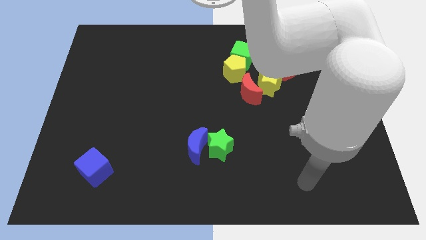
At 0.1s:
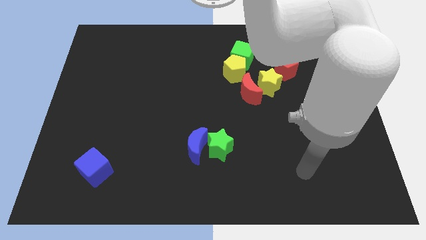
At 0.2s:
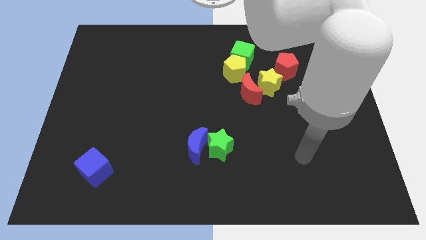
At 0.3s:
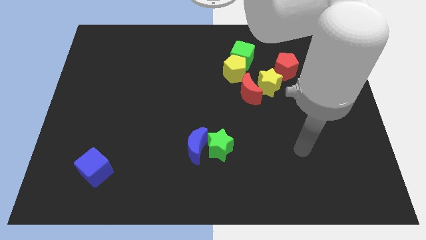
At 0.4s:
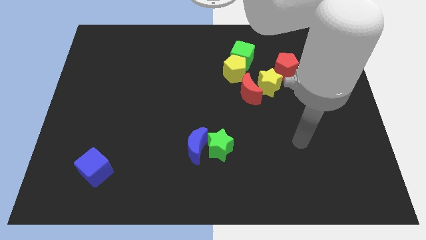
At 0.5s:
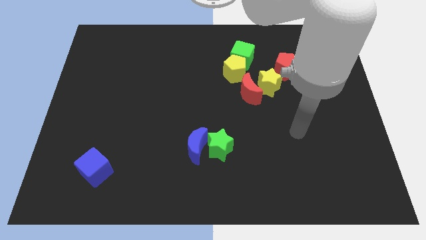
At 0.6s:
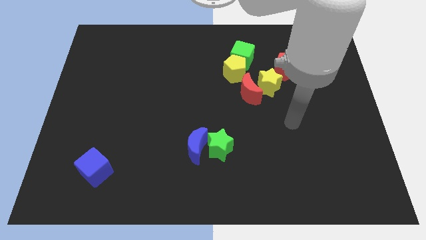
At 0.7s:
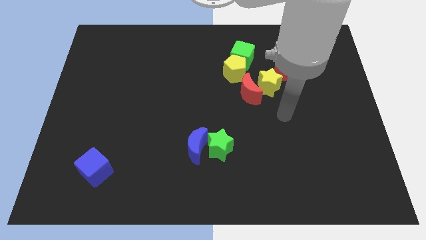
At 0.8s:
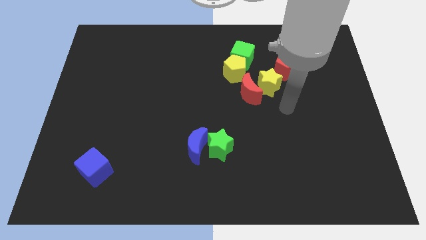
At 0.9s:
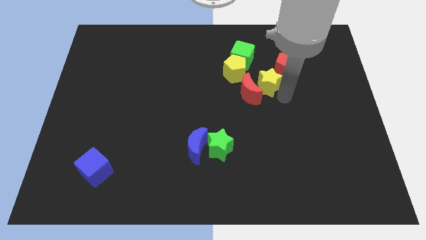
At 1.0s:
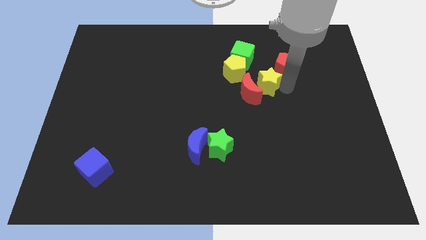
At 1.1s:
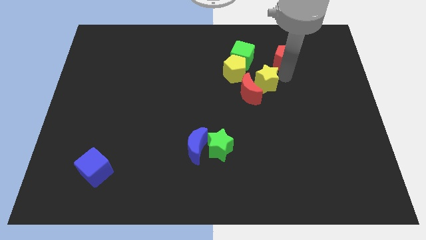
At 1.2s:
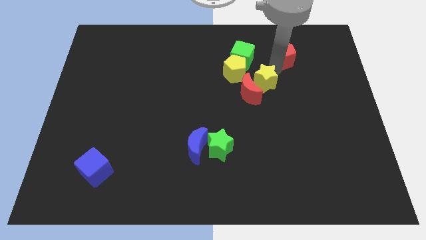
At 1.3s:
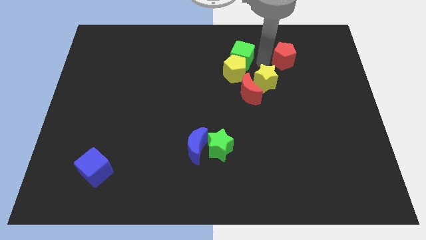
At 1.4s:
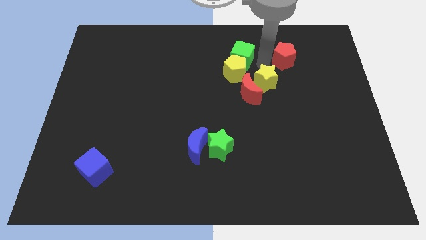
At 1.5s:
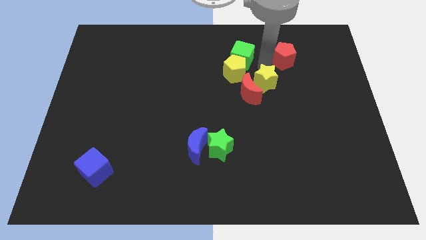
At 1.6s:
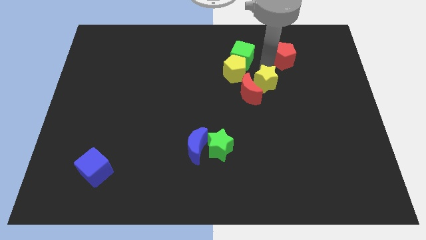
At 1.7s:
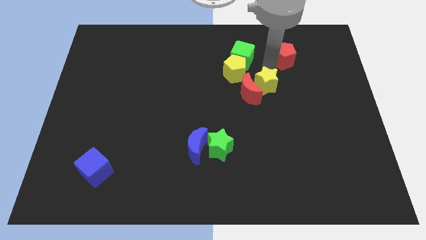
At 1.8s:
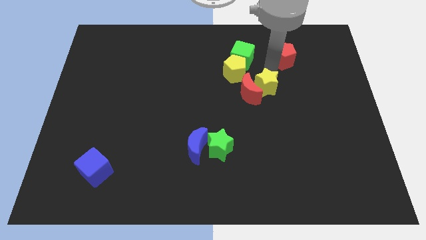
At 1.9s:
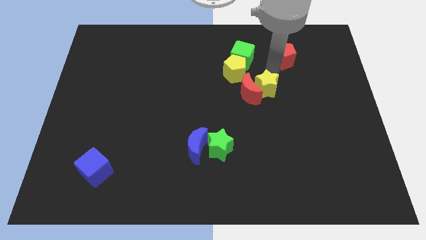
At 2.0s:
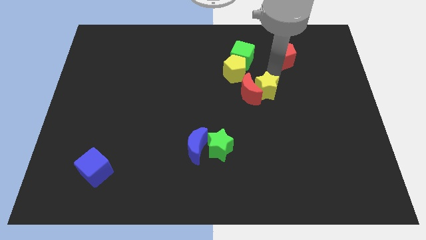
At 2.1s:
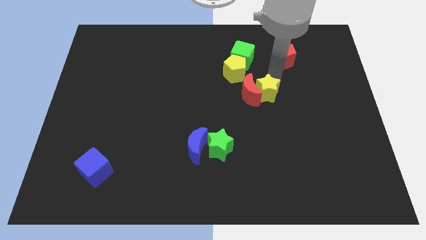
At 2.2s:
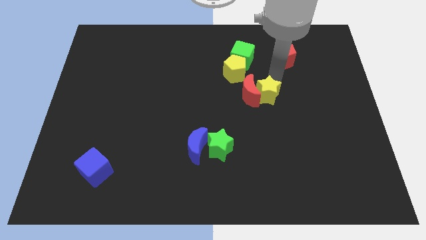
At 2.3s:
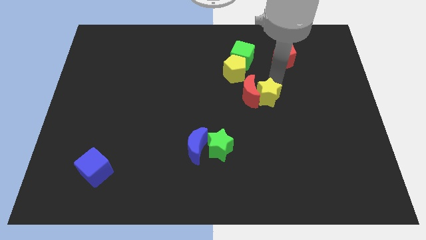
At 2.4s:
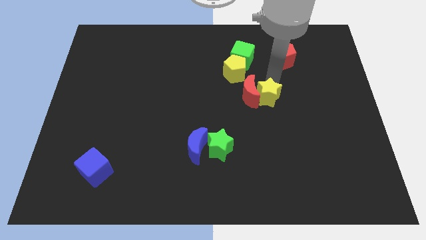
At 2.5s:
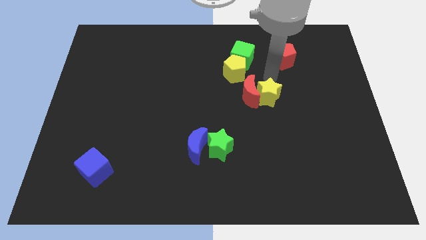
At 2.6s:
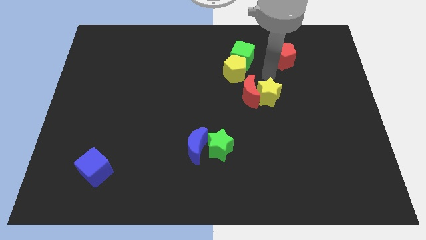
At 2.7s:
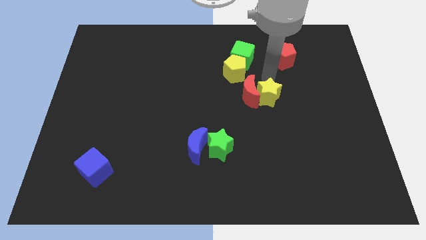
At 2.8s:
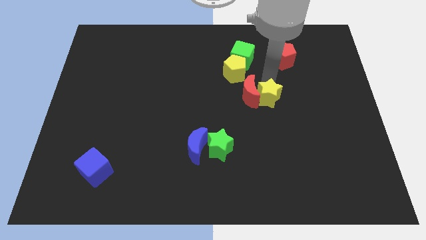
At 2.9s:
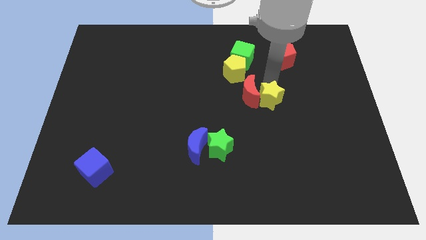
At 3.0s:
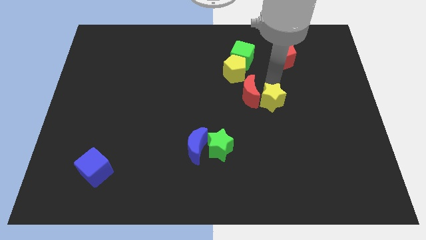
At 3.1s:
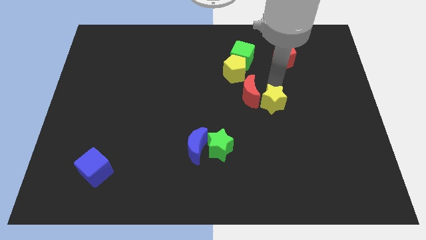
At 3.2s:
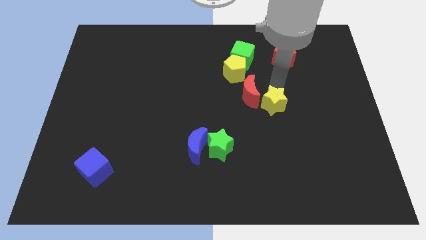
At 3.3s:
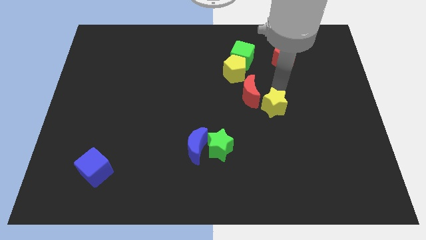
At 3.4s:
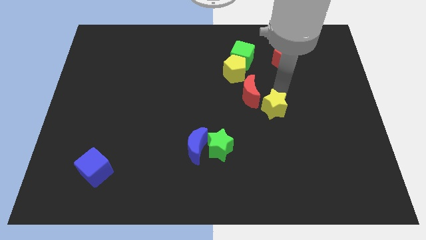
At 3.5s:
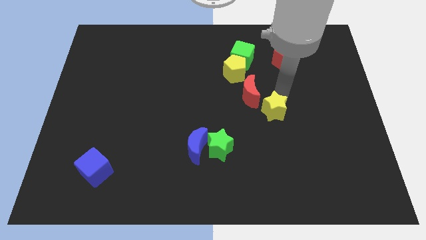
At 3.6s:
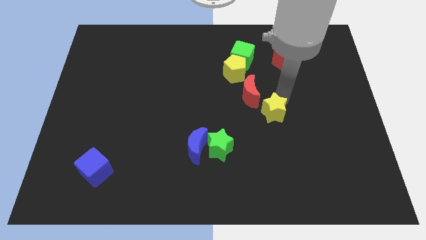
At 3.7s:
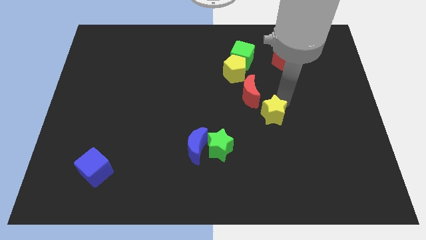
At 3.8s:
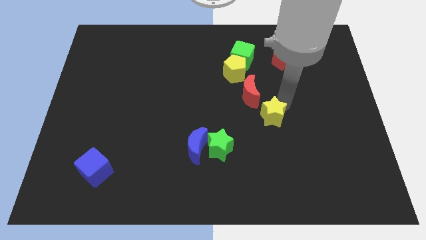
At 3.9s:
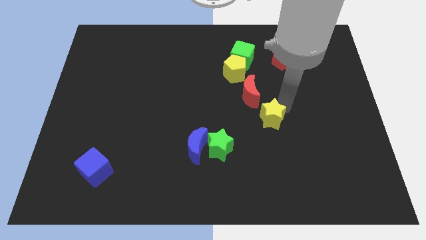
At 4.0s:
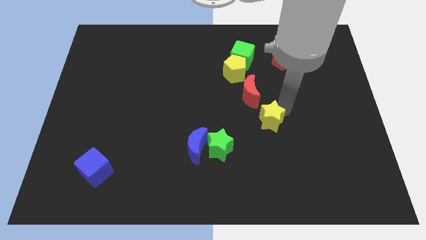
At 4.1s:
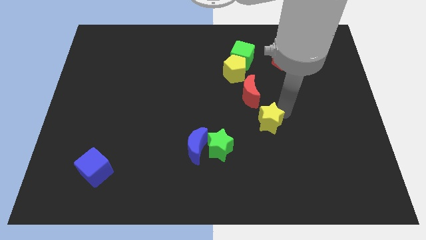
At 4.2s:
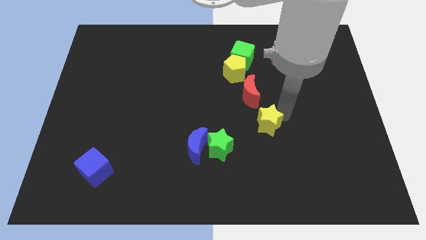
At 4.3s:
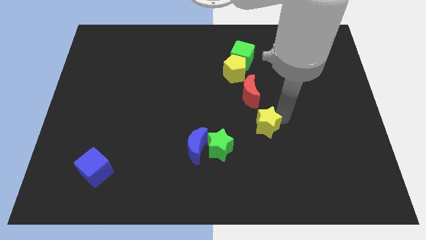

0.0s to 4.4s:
slightly push the yellow star downwards and then to the left

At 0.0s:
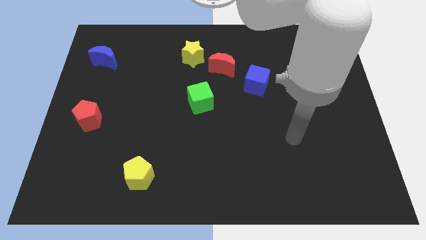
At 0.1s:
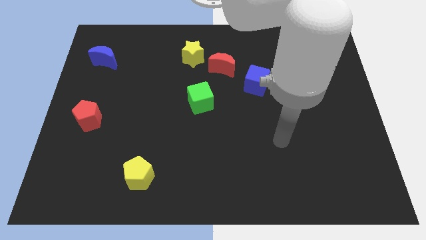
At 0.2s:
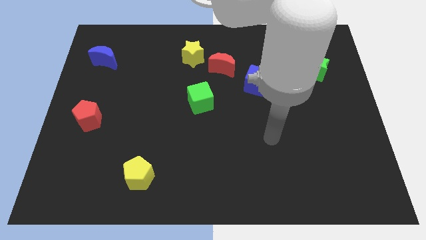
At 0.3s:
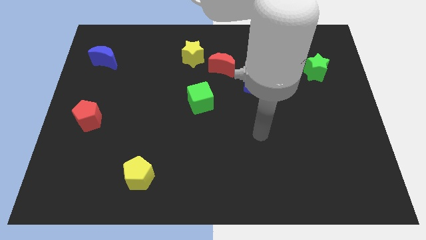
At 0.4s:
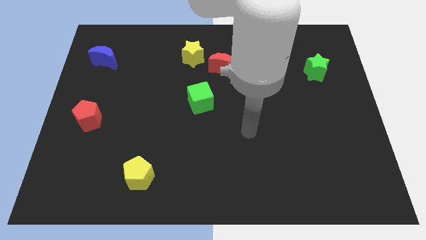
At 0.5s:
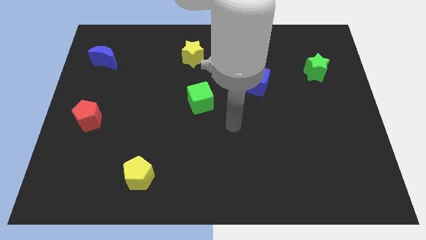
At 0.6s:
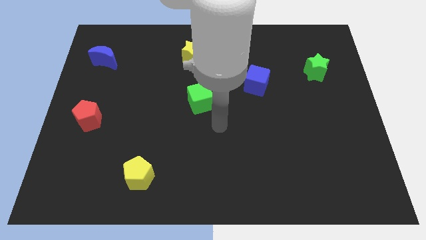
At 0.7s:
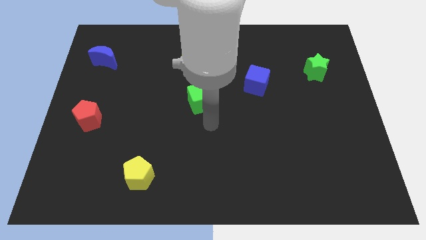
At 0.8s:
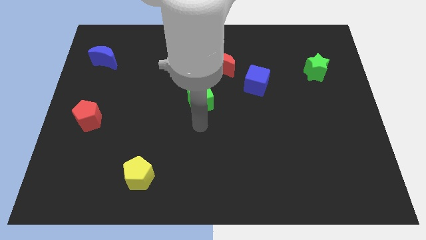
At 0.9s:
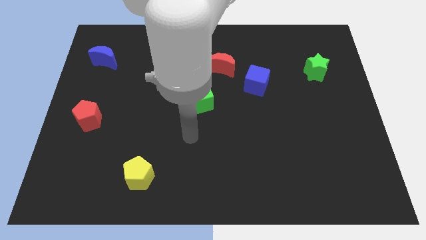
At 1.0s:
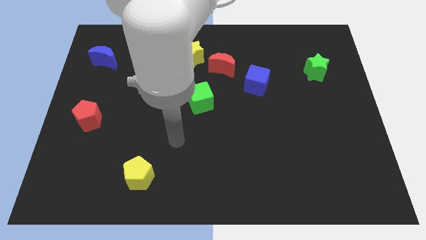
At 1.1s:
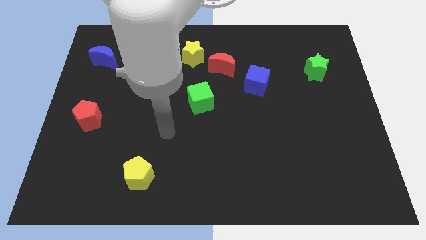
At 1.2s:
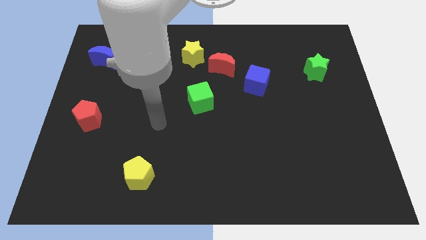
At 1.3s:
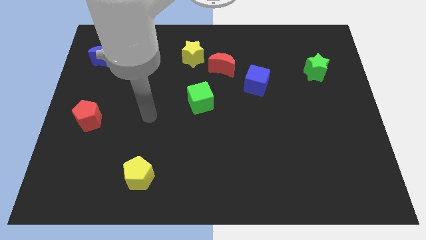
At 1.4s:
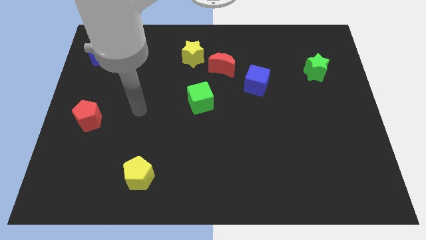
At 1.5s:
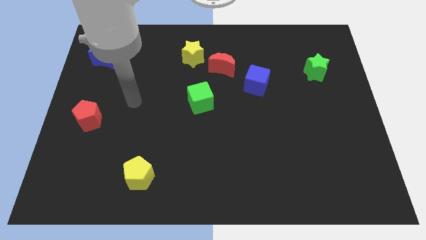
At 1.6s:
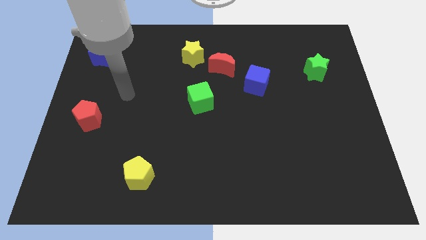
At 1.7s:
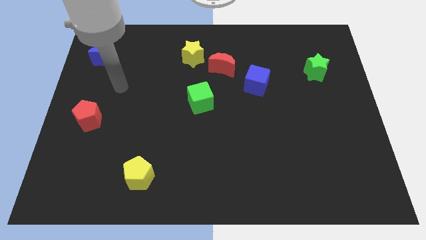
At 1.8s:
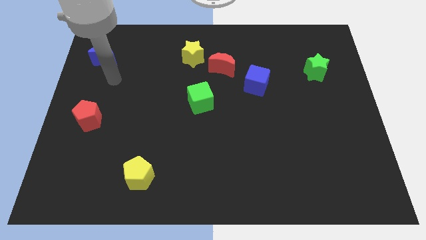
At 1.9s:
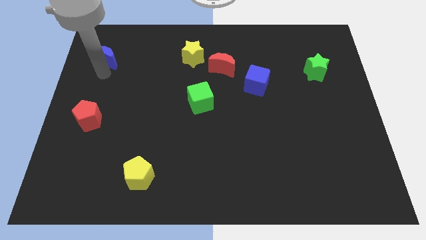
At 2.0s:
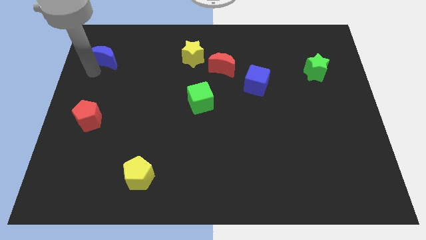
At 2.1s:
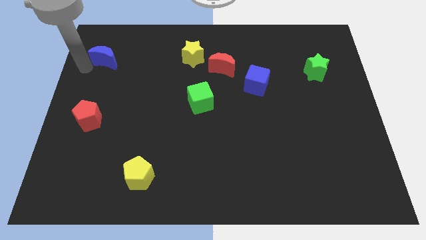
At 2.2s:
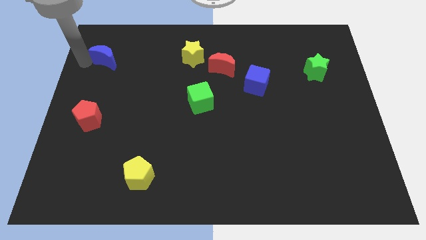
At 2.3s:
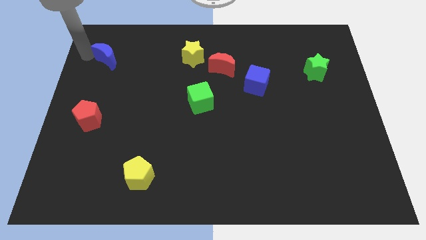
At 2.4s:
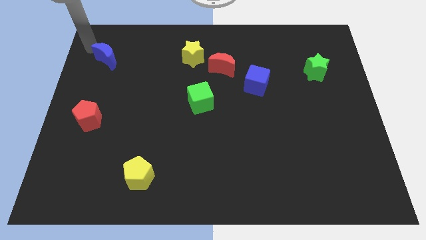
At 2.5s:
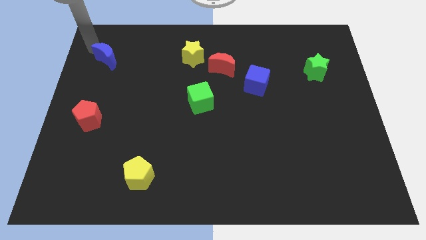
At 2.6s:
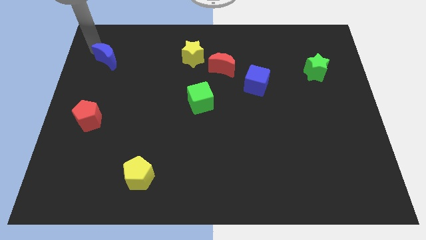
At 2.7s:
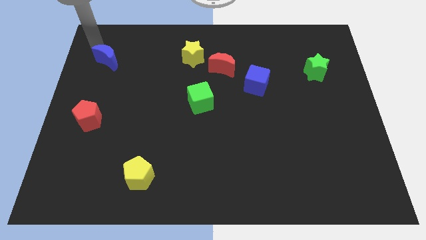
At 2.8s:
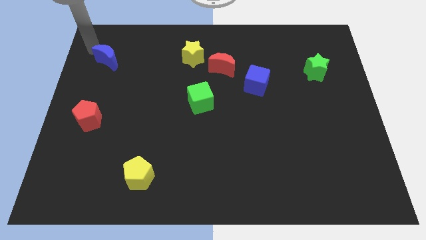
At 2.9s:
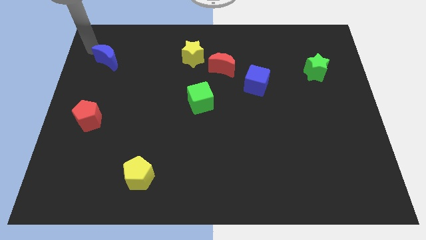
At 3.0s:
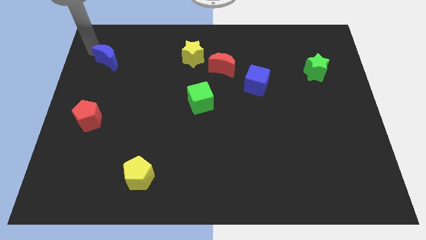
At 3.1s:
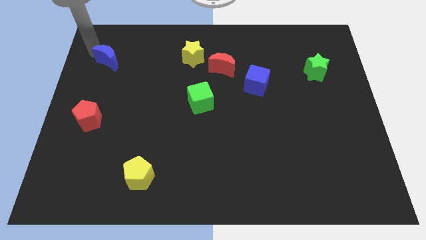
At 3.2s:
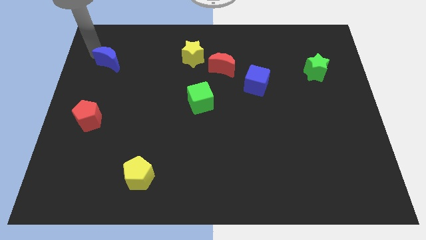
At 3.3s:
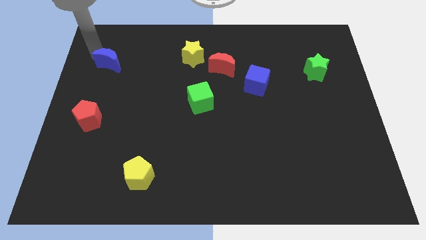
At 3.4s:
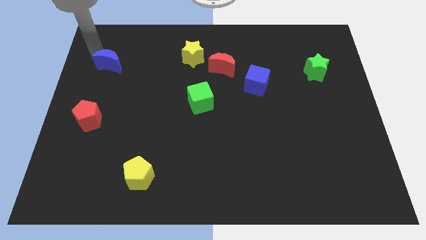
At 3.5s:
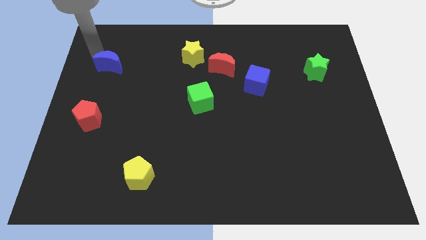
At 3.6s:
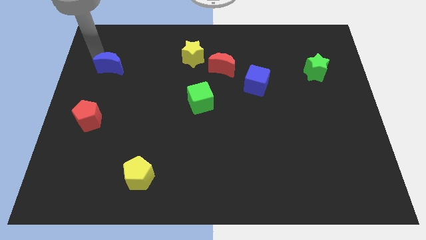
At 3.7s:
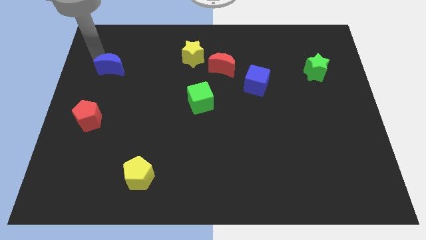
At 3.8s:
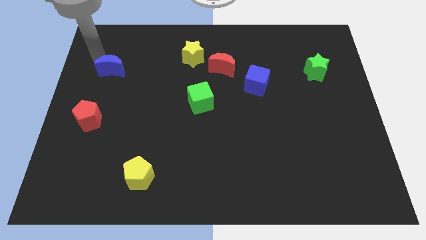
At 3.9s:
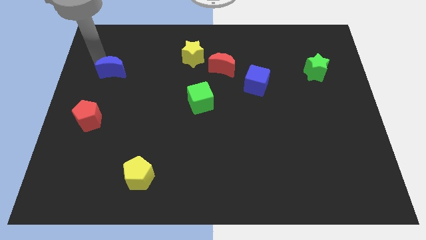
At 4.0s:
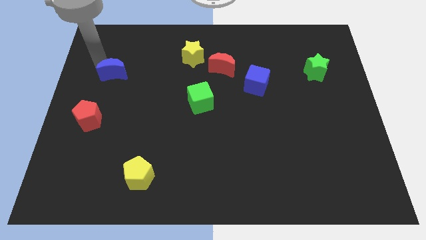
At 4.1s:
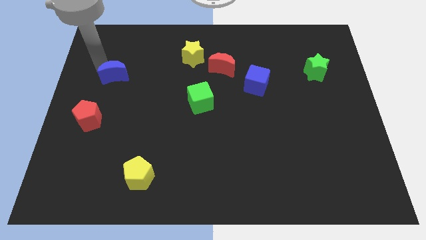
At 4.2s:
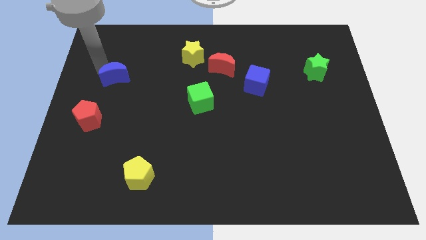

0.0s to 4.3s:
slightly move the blue moon down and right diagonally
